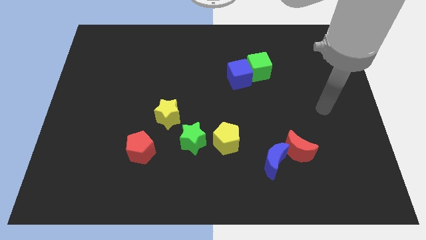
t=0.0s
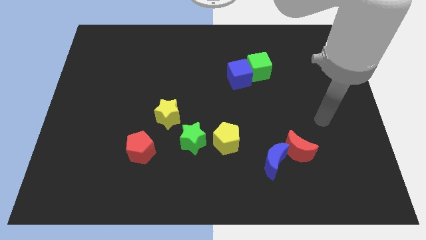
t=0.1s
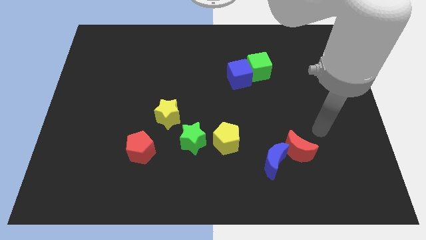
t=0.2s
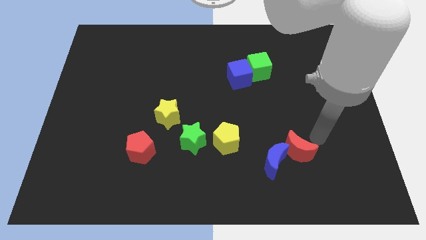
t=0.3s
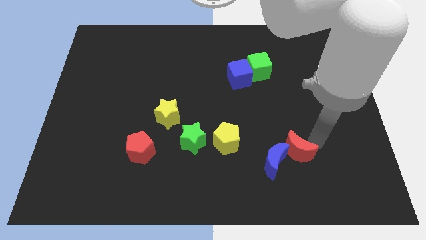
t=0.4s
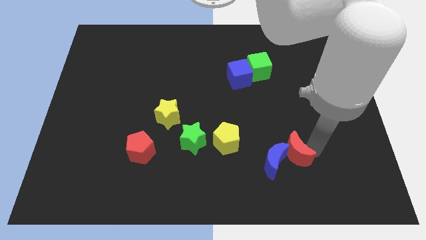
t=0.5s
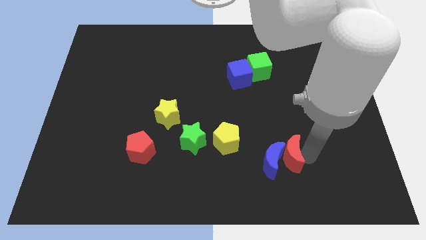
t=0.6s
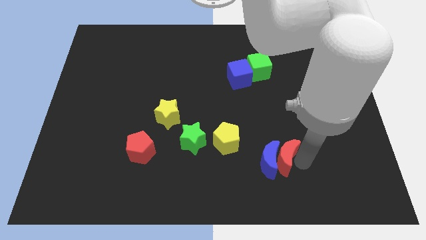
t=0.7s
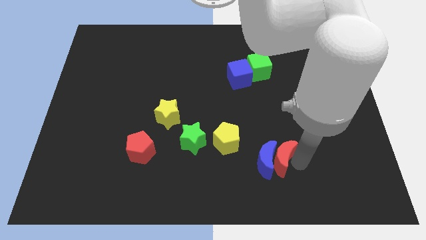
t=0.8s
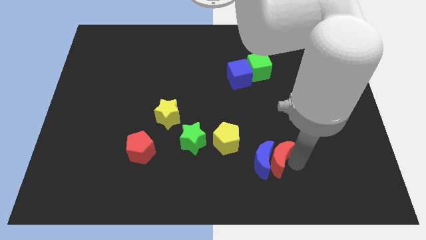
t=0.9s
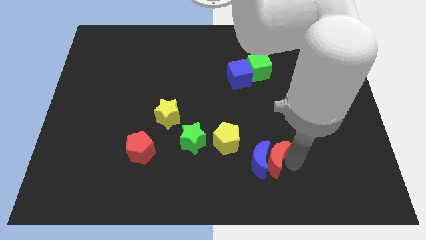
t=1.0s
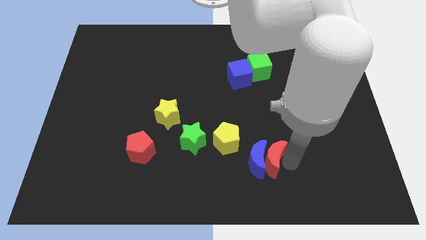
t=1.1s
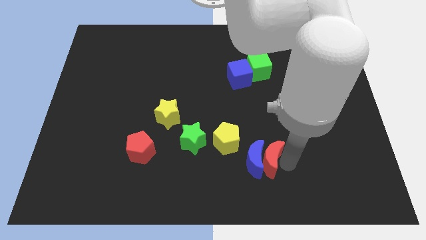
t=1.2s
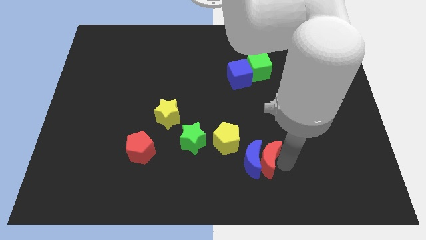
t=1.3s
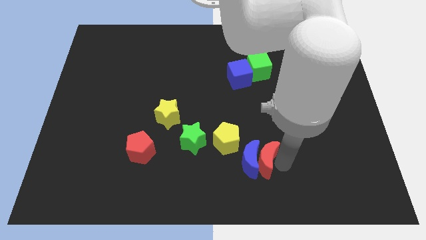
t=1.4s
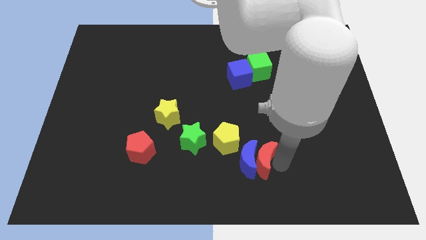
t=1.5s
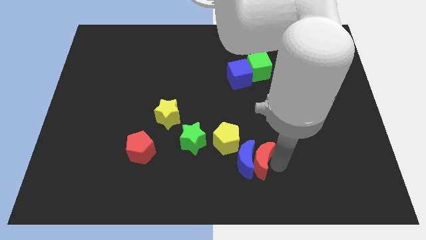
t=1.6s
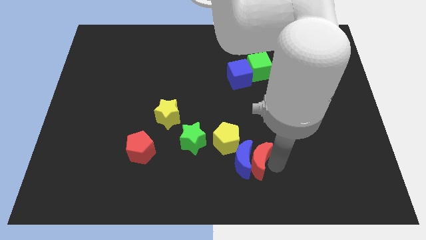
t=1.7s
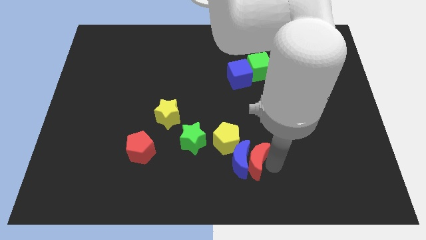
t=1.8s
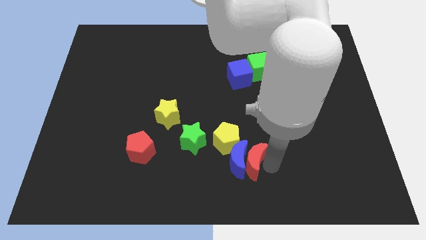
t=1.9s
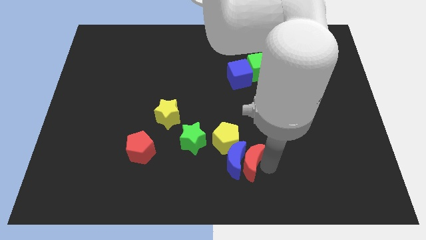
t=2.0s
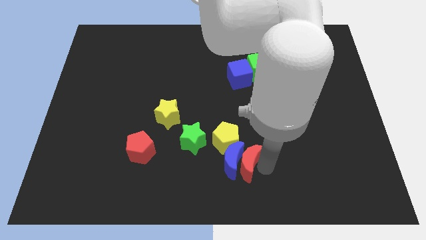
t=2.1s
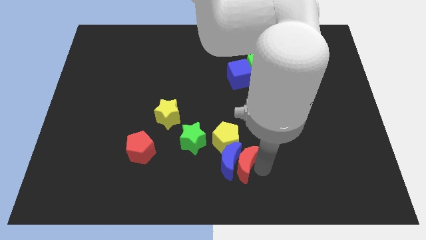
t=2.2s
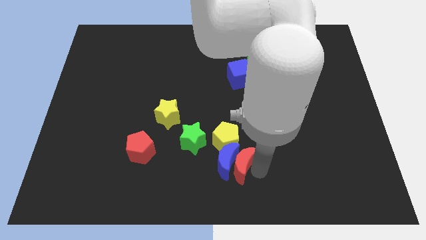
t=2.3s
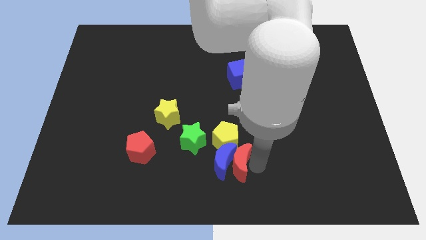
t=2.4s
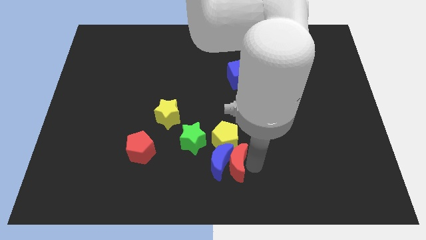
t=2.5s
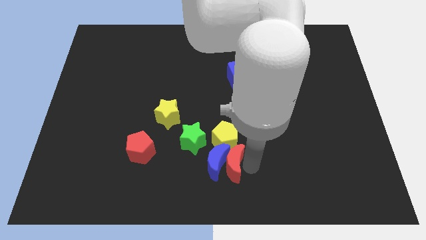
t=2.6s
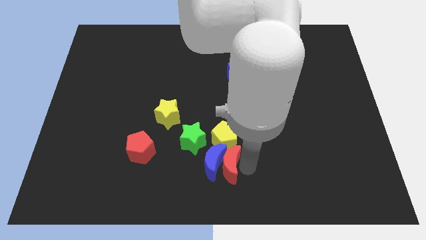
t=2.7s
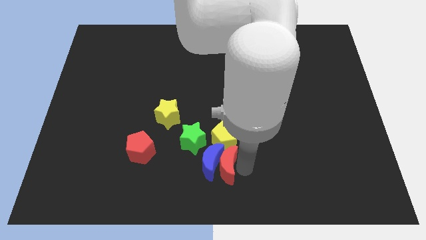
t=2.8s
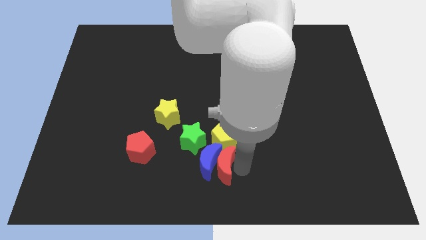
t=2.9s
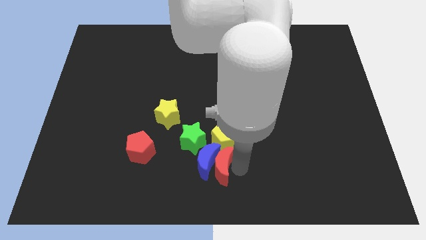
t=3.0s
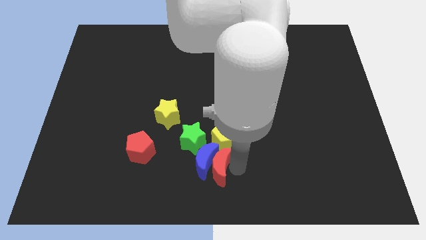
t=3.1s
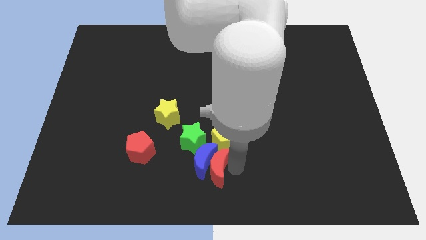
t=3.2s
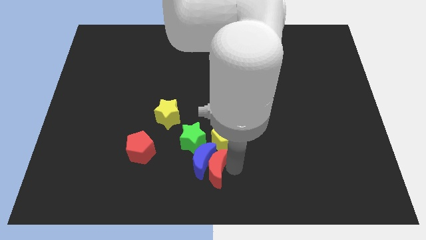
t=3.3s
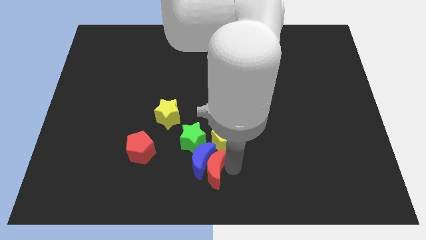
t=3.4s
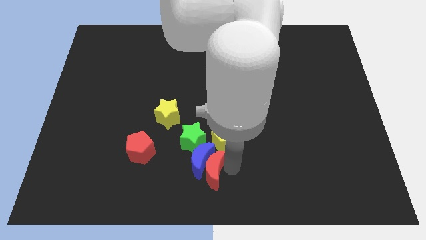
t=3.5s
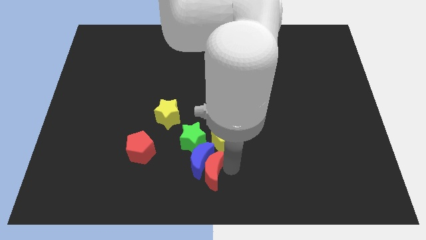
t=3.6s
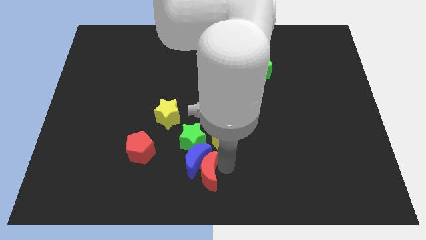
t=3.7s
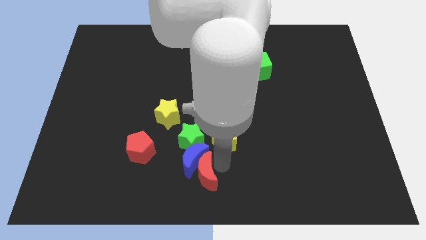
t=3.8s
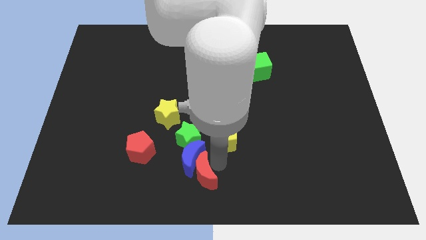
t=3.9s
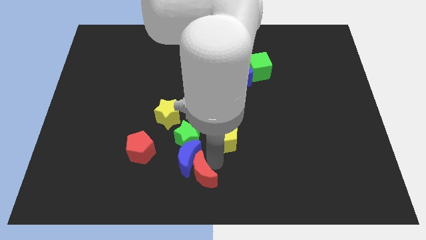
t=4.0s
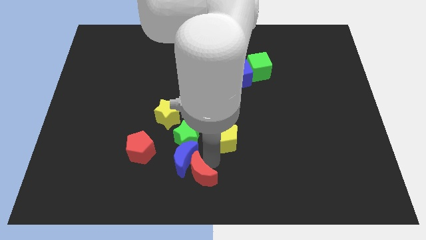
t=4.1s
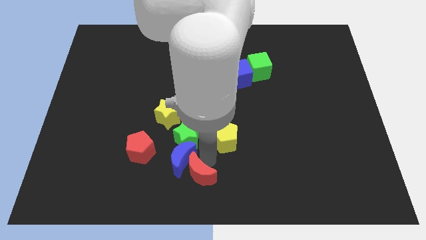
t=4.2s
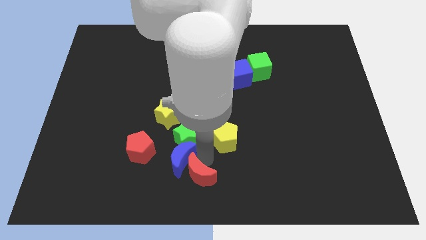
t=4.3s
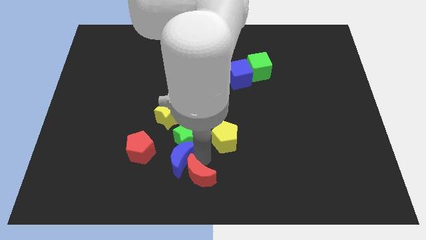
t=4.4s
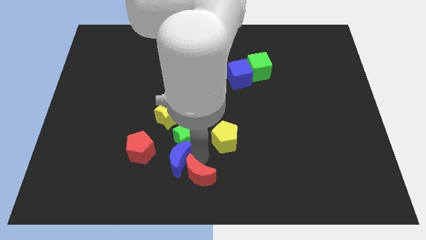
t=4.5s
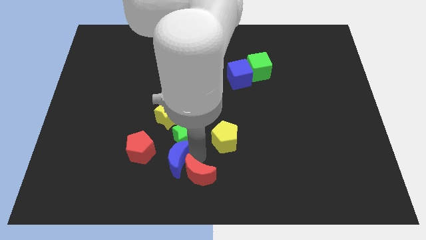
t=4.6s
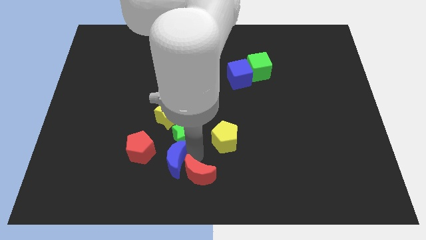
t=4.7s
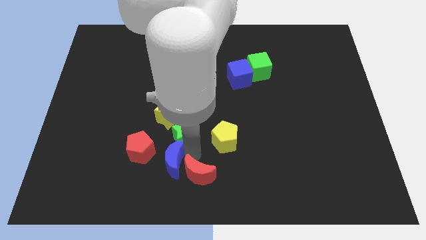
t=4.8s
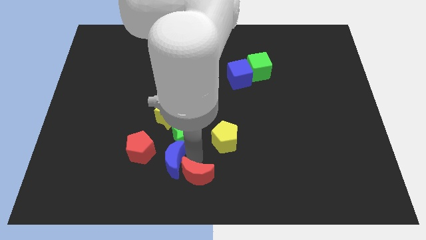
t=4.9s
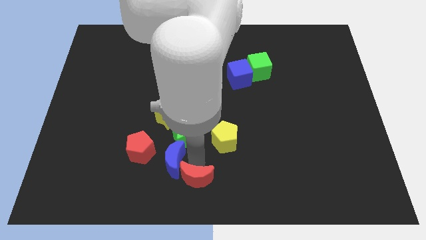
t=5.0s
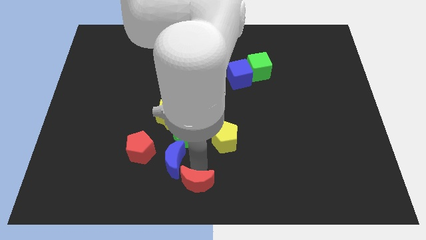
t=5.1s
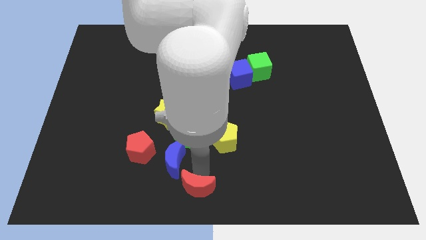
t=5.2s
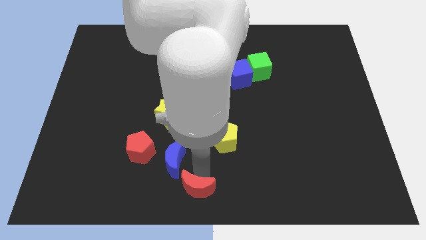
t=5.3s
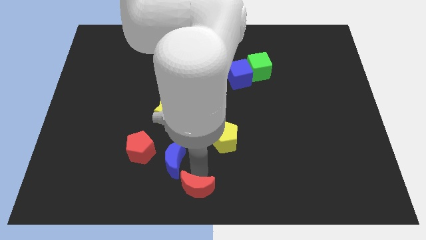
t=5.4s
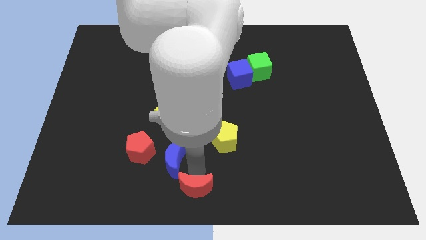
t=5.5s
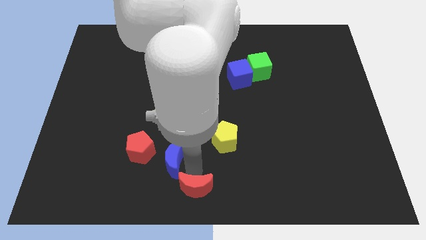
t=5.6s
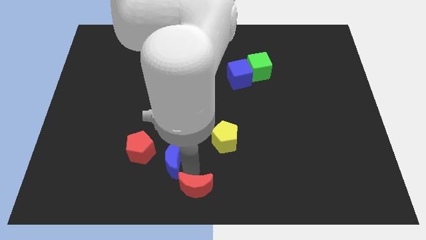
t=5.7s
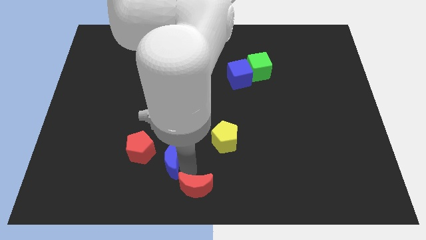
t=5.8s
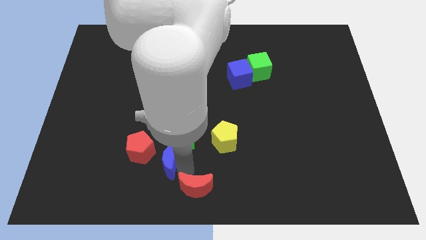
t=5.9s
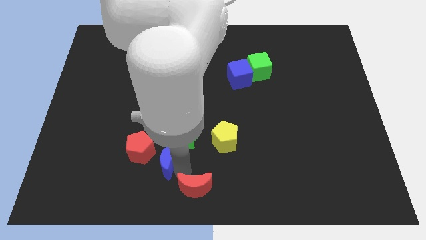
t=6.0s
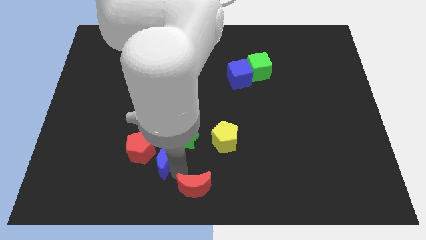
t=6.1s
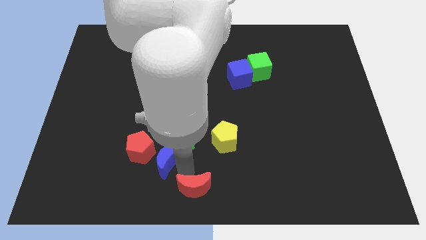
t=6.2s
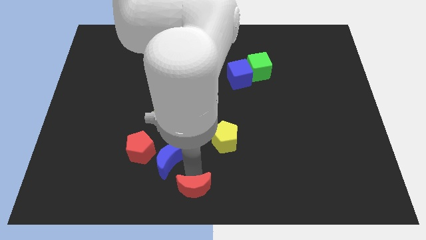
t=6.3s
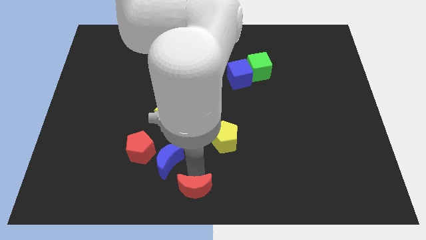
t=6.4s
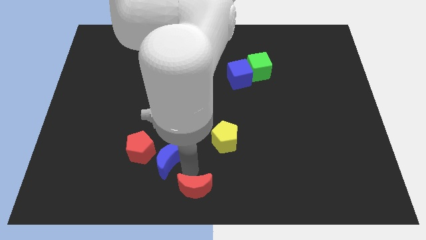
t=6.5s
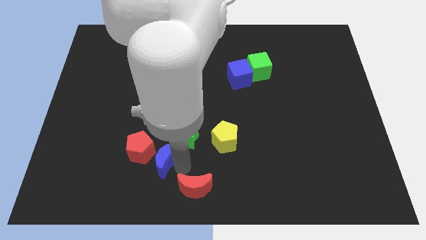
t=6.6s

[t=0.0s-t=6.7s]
put the blue moon close to the red pentagon

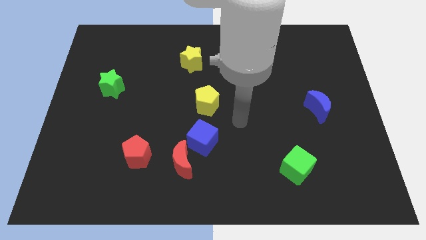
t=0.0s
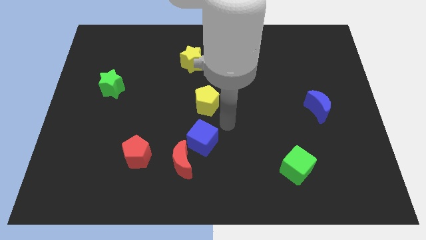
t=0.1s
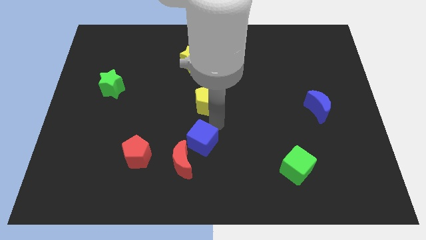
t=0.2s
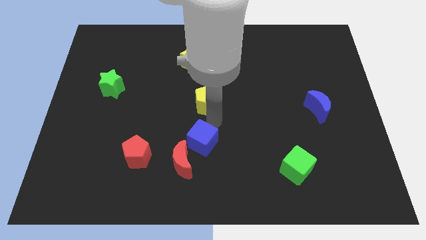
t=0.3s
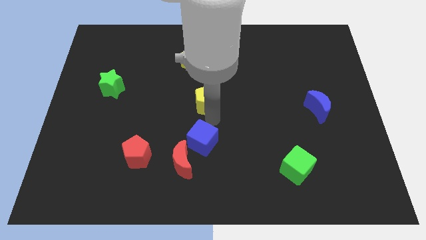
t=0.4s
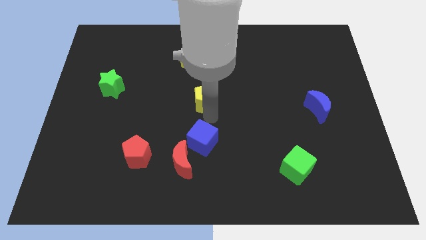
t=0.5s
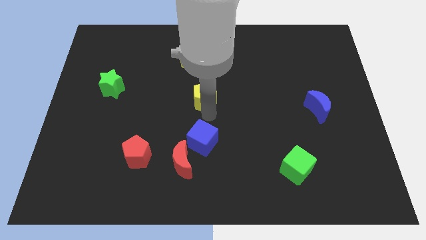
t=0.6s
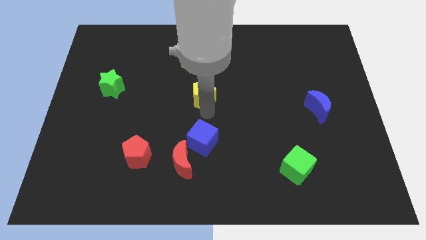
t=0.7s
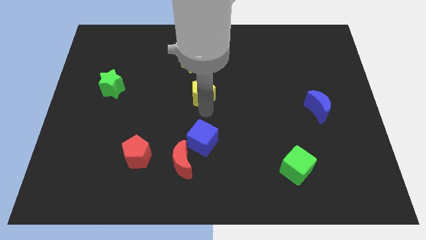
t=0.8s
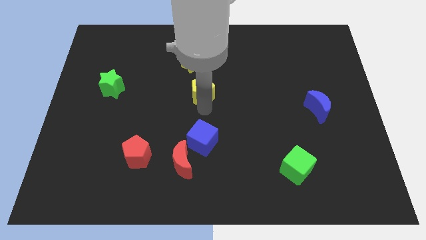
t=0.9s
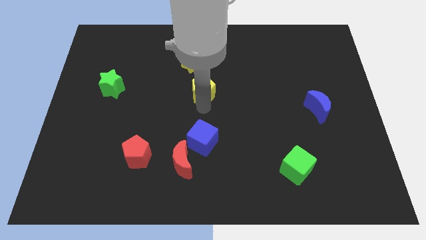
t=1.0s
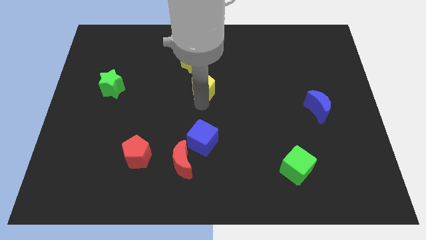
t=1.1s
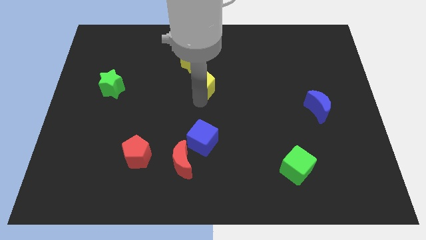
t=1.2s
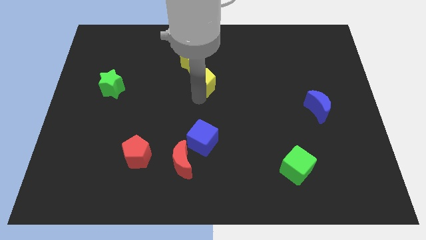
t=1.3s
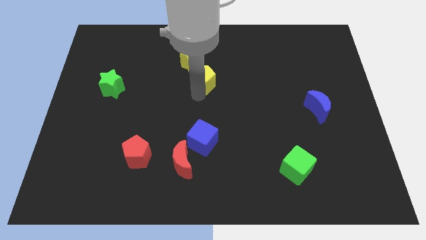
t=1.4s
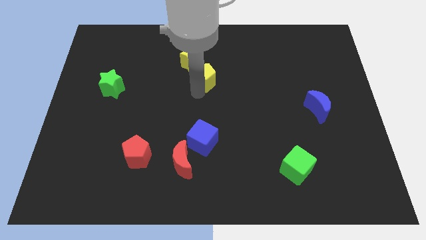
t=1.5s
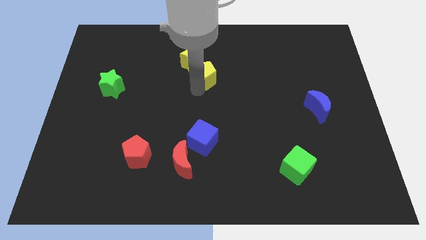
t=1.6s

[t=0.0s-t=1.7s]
put the yellow pentagon towards the yellow star
